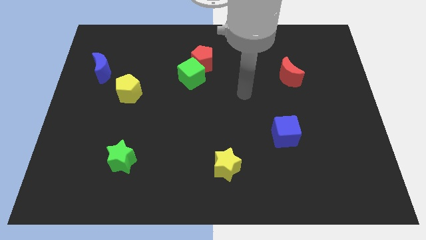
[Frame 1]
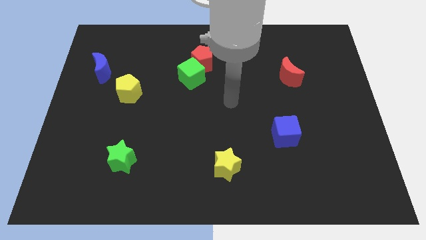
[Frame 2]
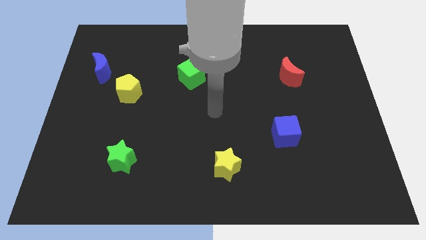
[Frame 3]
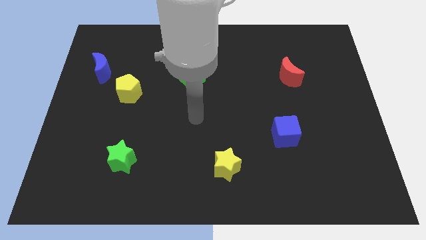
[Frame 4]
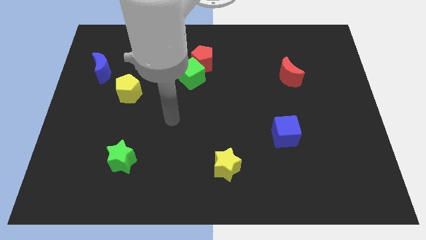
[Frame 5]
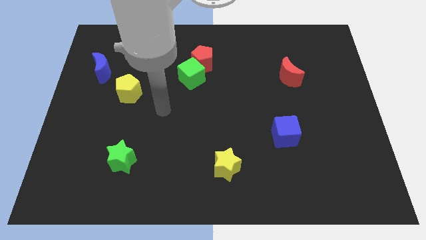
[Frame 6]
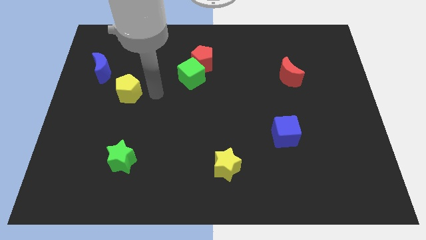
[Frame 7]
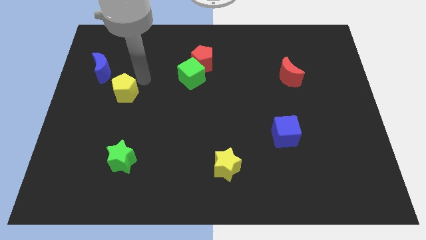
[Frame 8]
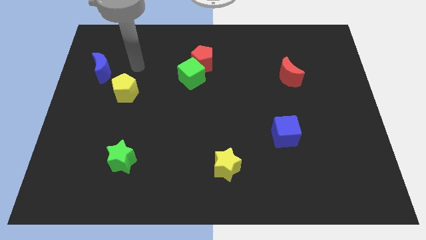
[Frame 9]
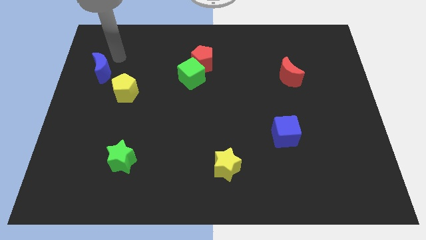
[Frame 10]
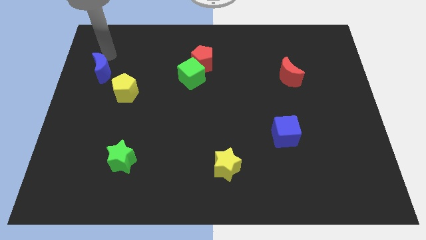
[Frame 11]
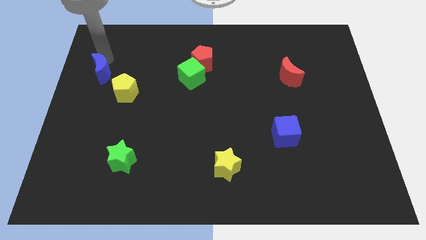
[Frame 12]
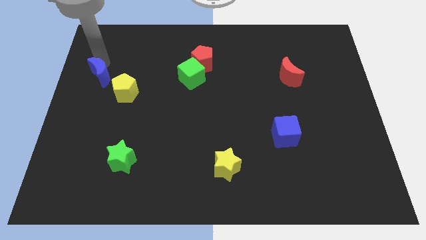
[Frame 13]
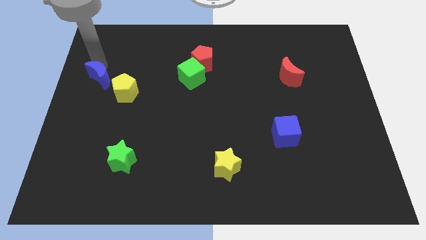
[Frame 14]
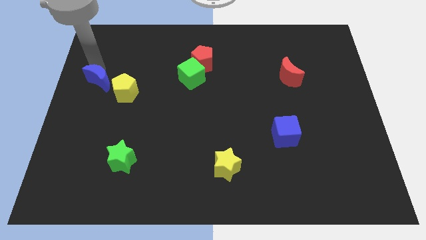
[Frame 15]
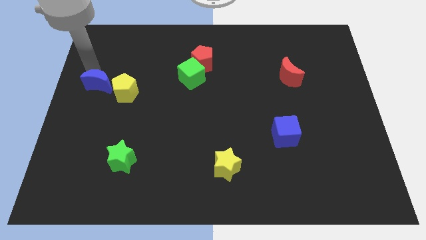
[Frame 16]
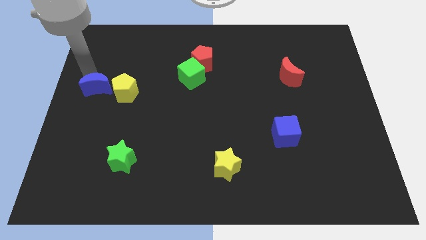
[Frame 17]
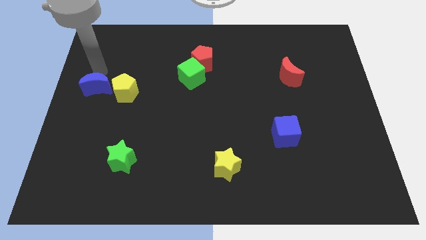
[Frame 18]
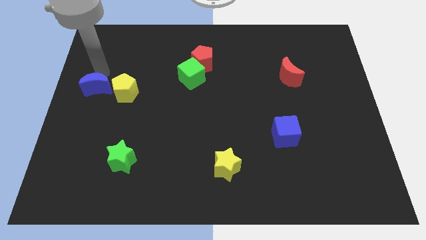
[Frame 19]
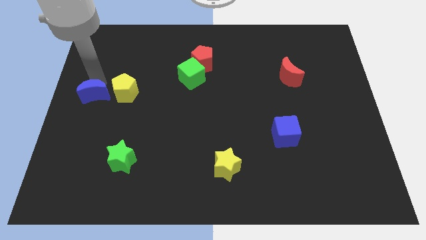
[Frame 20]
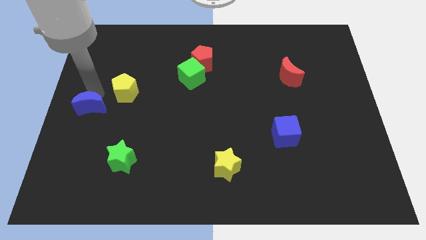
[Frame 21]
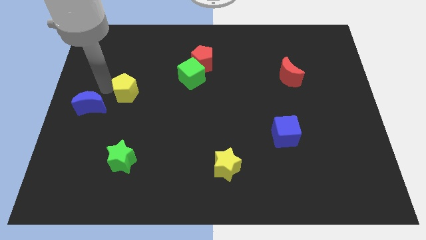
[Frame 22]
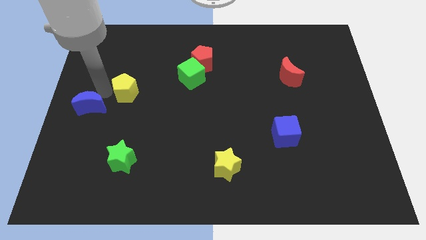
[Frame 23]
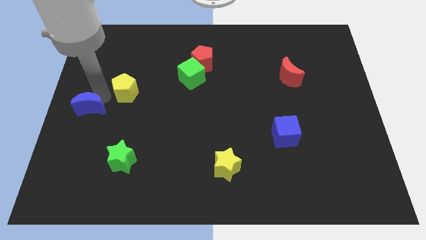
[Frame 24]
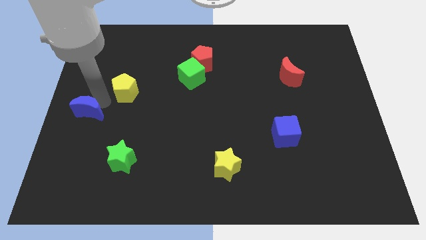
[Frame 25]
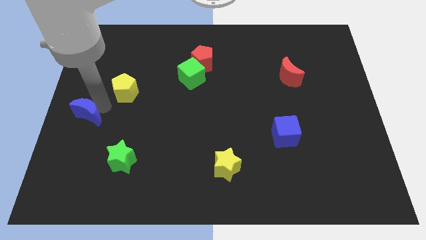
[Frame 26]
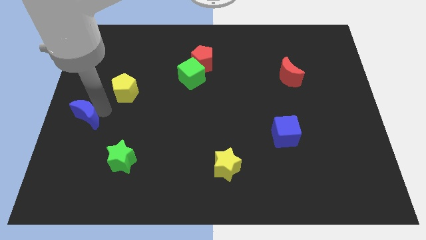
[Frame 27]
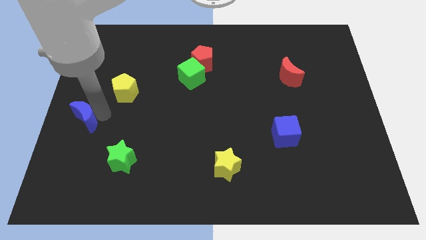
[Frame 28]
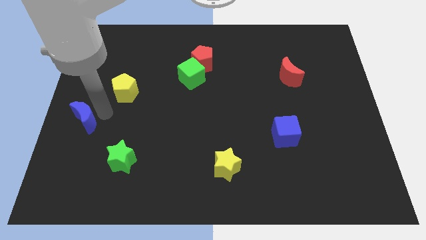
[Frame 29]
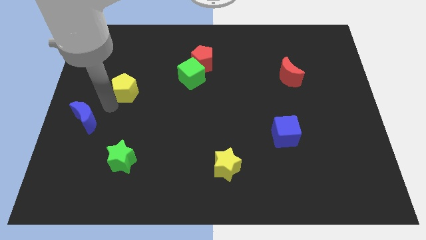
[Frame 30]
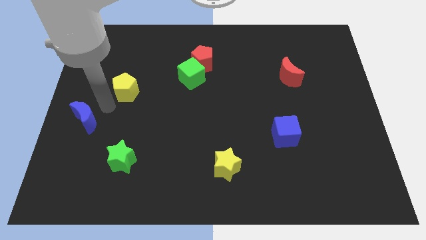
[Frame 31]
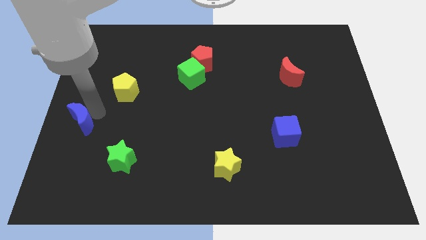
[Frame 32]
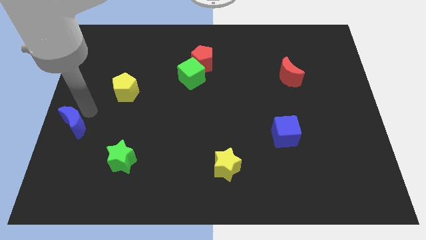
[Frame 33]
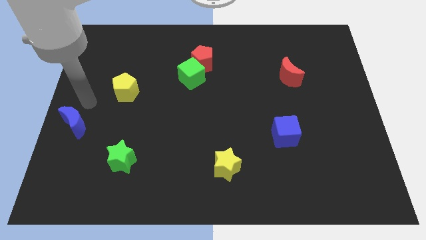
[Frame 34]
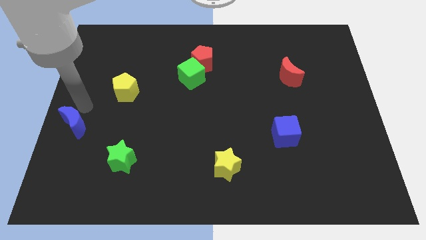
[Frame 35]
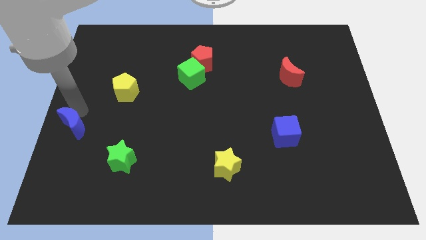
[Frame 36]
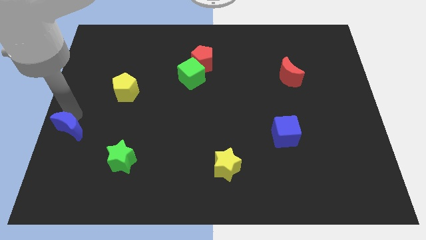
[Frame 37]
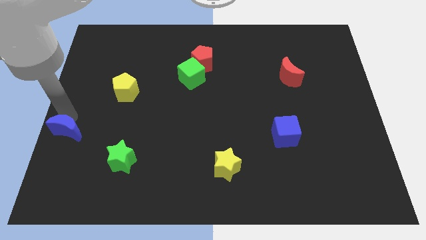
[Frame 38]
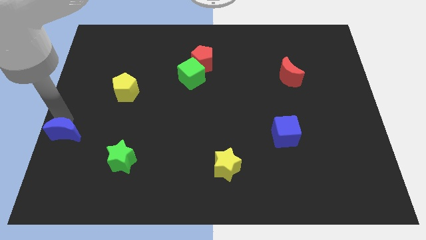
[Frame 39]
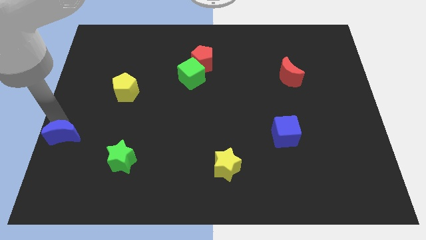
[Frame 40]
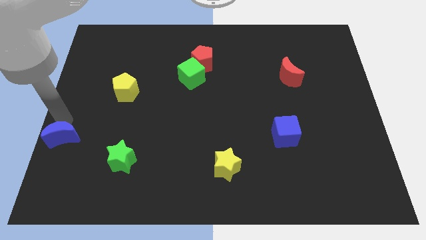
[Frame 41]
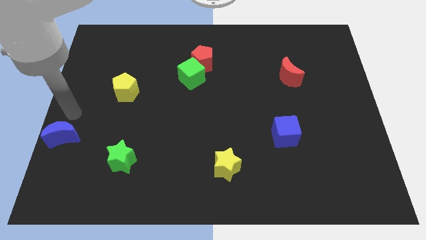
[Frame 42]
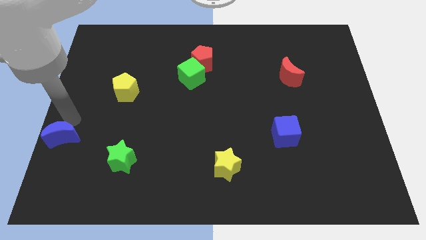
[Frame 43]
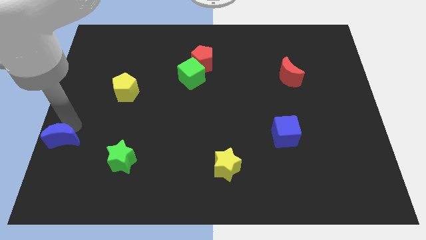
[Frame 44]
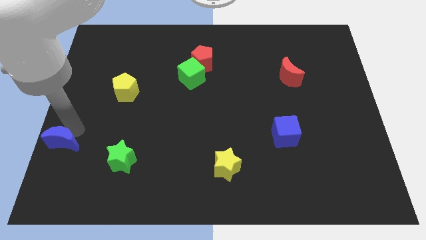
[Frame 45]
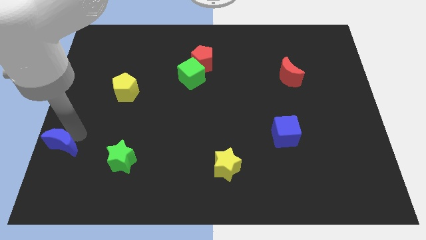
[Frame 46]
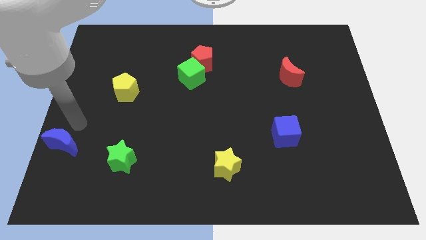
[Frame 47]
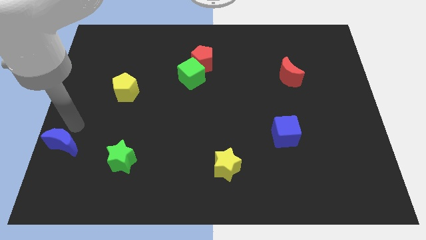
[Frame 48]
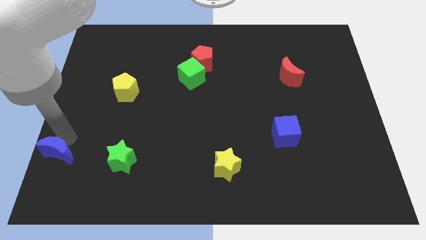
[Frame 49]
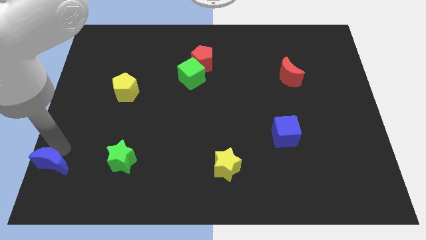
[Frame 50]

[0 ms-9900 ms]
push the blue moon to the bottom left of the board

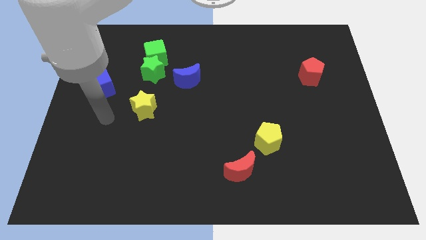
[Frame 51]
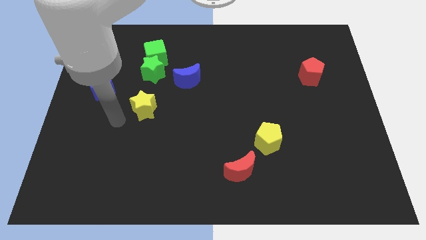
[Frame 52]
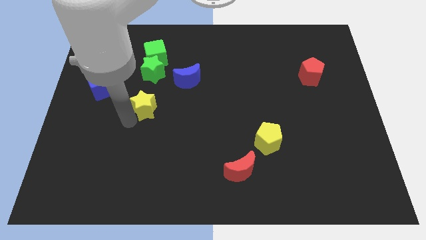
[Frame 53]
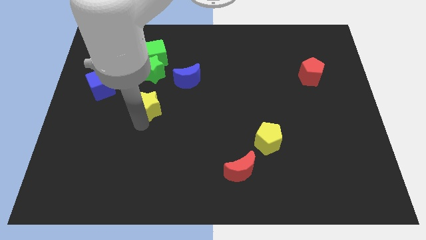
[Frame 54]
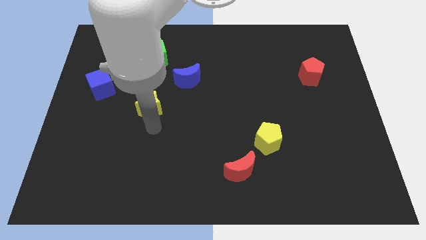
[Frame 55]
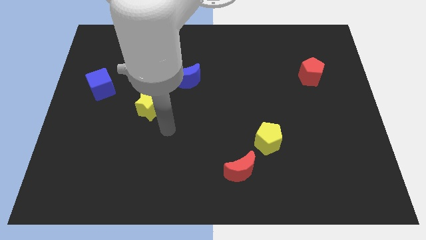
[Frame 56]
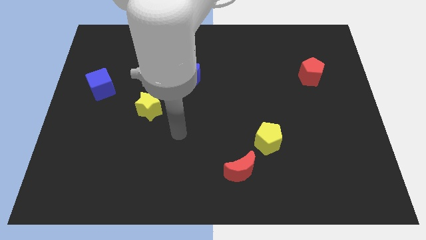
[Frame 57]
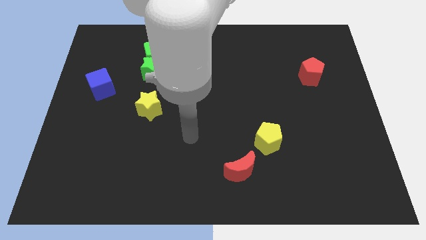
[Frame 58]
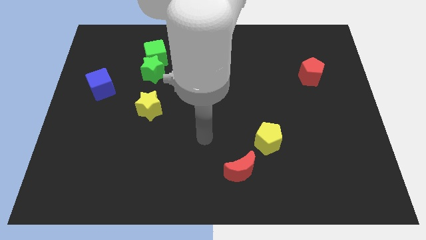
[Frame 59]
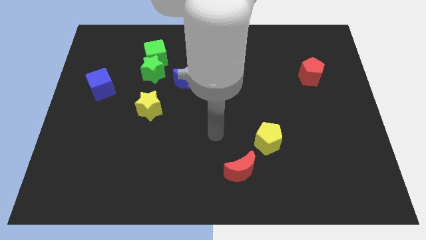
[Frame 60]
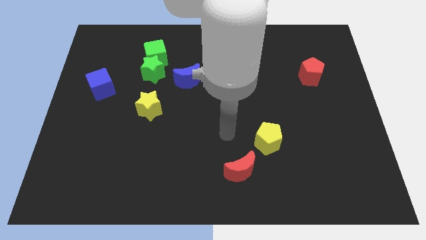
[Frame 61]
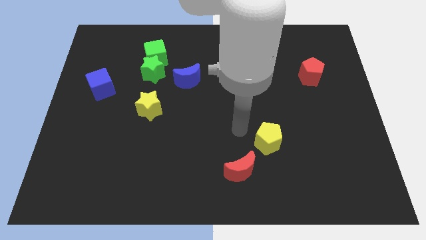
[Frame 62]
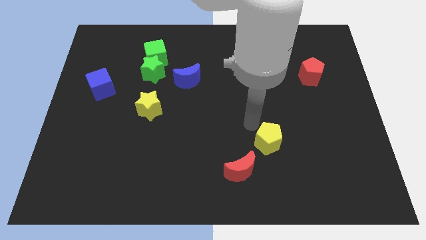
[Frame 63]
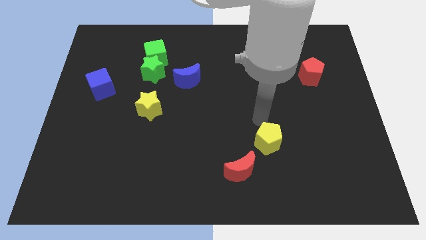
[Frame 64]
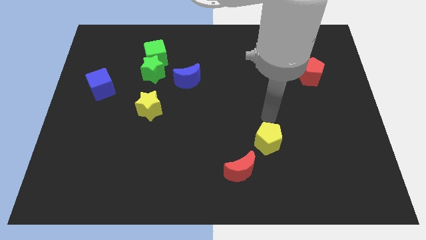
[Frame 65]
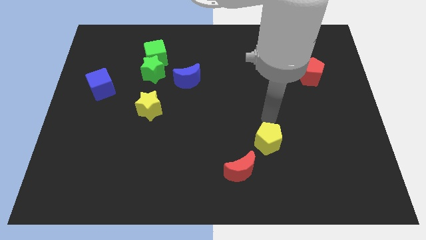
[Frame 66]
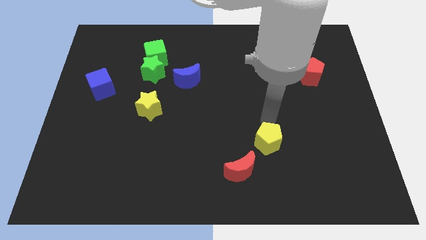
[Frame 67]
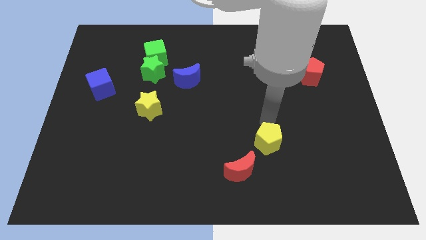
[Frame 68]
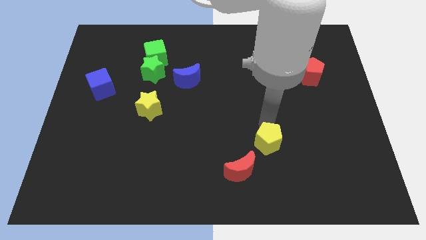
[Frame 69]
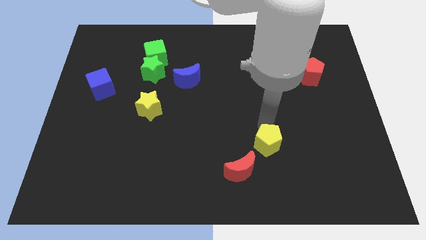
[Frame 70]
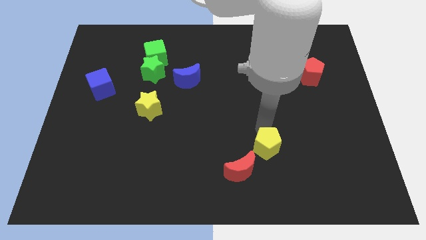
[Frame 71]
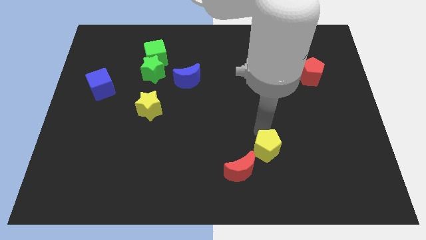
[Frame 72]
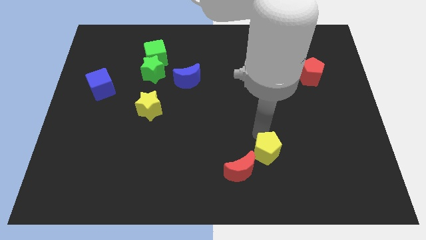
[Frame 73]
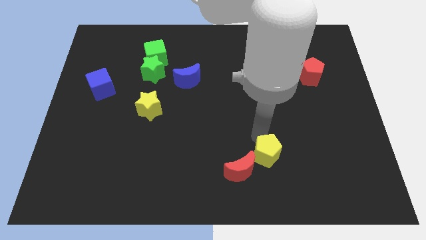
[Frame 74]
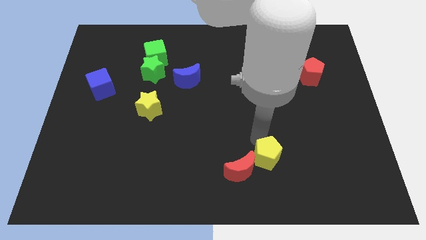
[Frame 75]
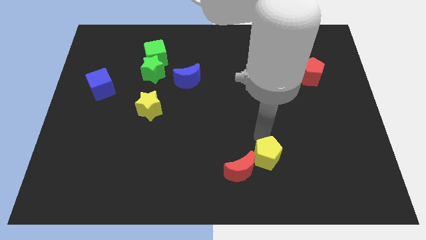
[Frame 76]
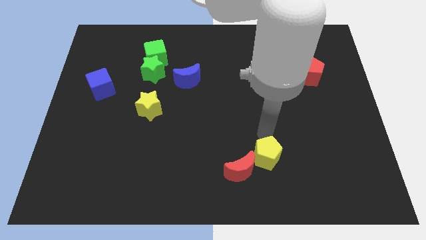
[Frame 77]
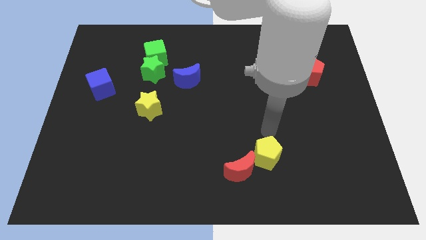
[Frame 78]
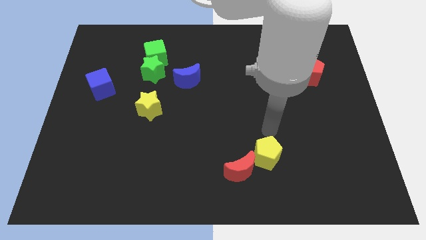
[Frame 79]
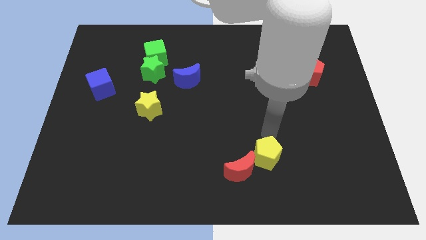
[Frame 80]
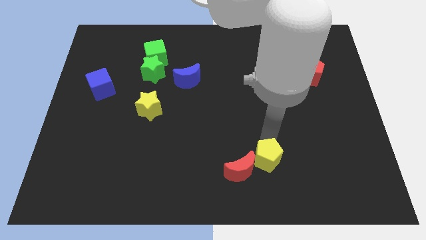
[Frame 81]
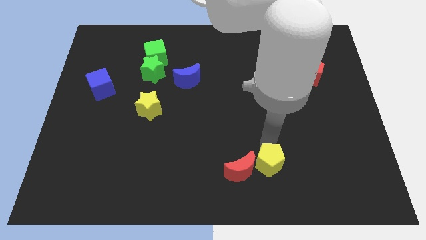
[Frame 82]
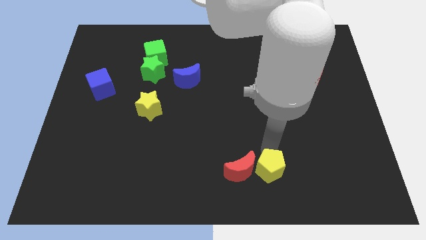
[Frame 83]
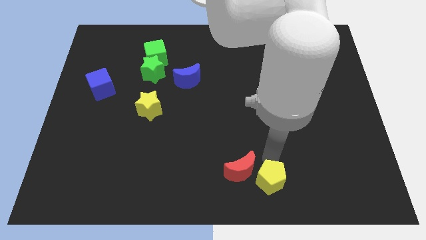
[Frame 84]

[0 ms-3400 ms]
put the yellow pentagon to the bottom
